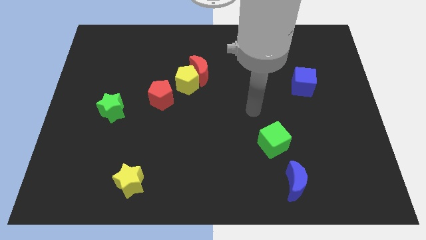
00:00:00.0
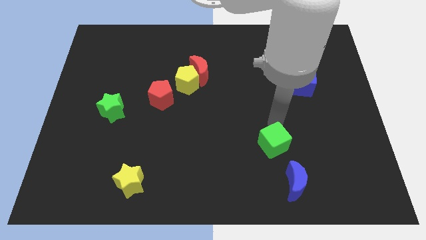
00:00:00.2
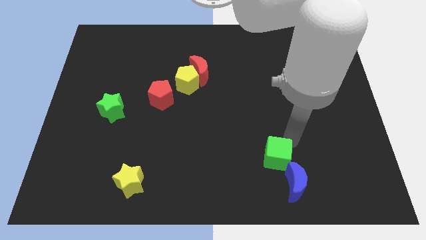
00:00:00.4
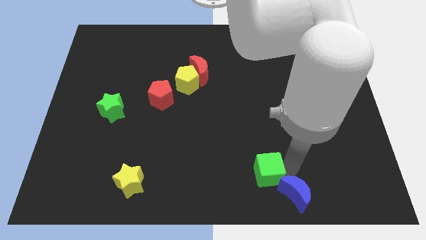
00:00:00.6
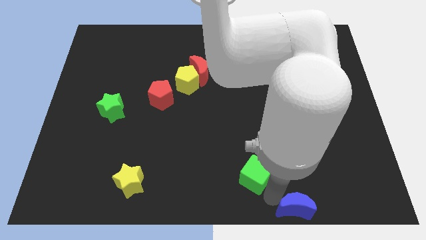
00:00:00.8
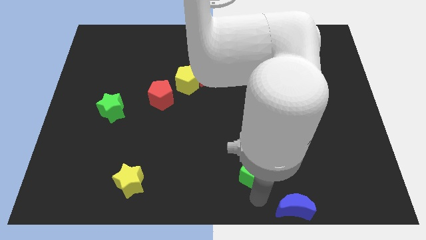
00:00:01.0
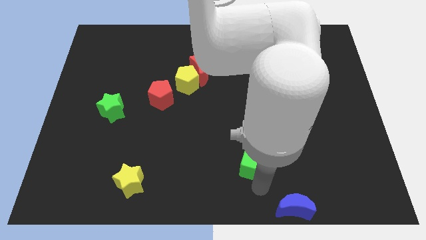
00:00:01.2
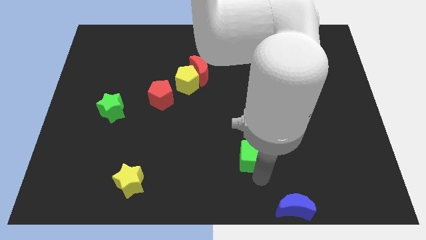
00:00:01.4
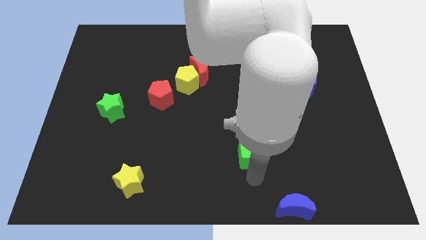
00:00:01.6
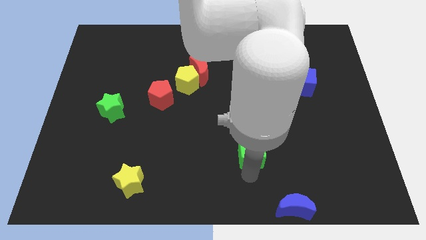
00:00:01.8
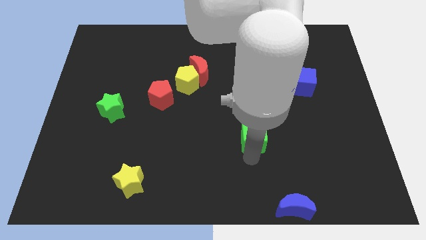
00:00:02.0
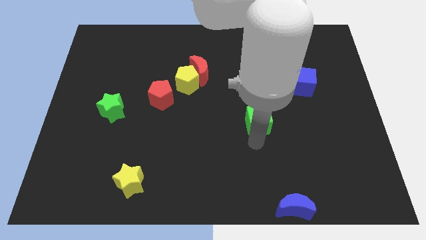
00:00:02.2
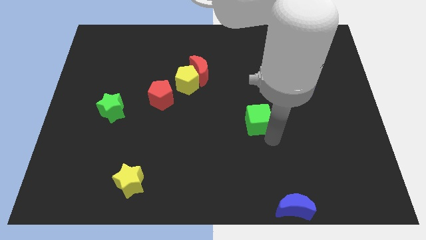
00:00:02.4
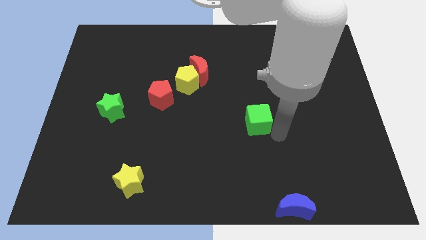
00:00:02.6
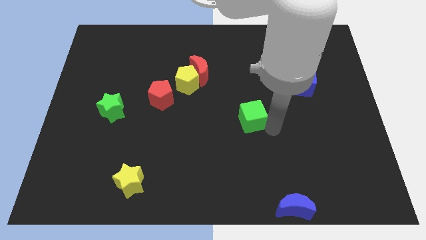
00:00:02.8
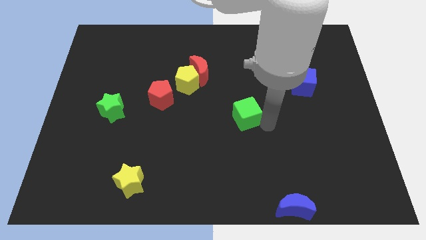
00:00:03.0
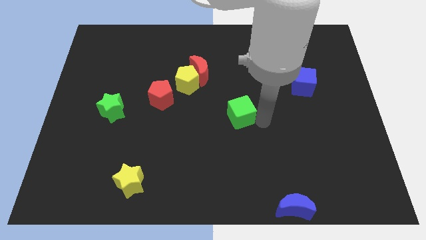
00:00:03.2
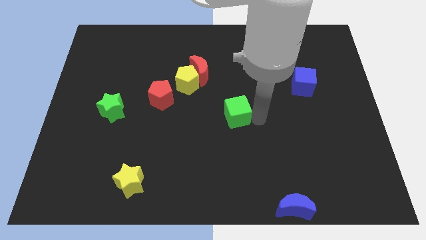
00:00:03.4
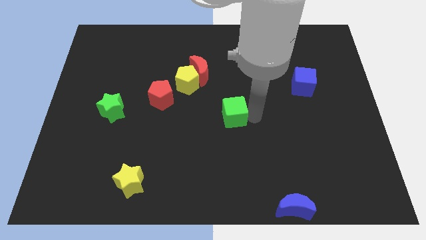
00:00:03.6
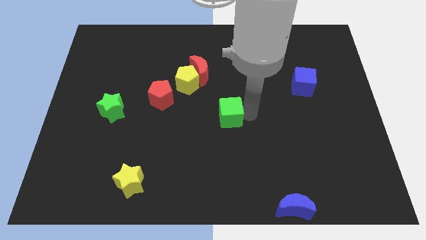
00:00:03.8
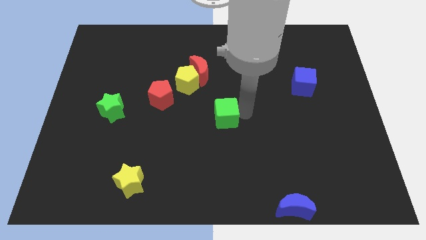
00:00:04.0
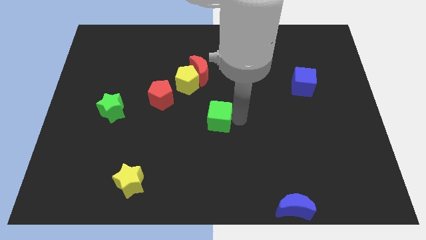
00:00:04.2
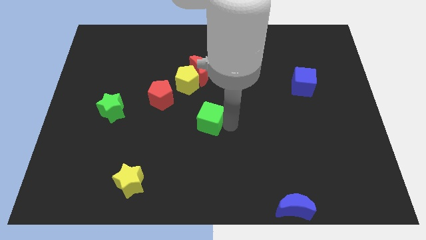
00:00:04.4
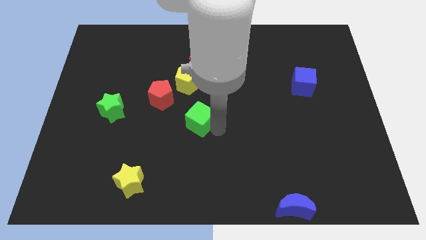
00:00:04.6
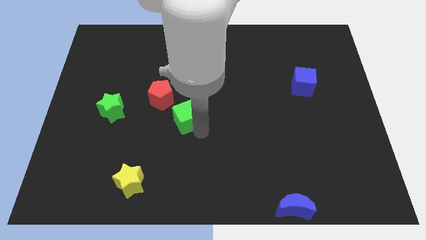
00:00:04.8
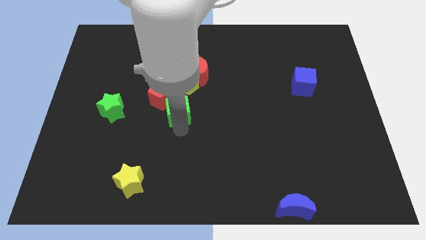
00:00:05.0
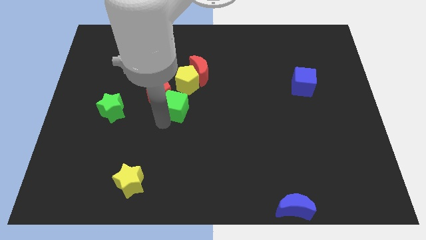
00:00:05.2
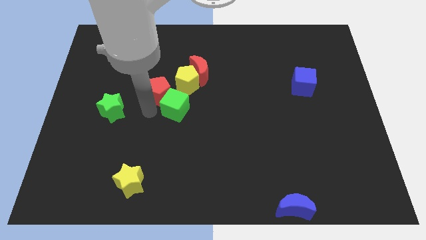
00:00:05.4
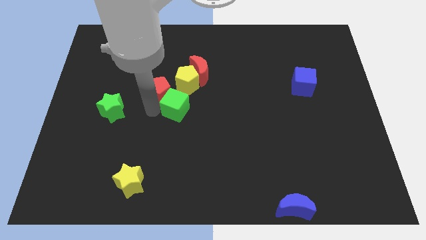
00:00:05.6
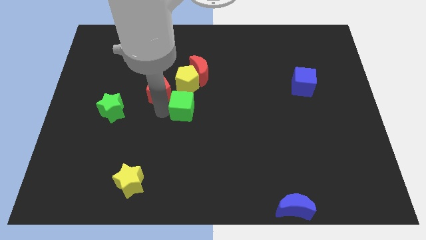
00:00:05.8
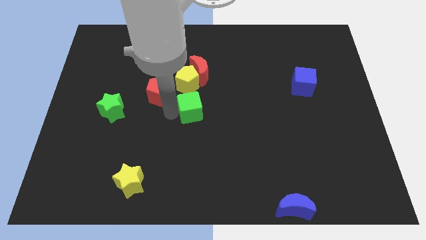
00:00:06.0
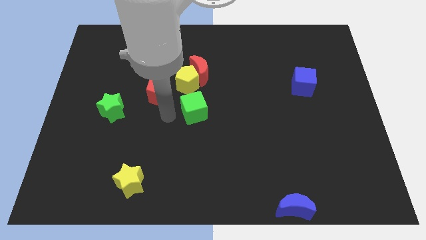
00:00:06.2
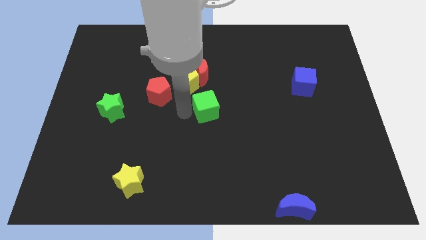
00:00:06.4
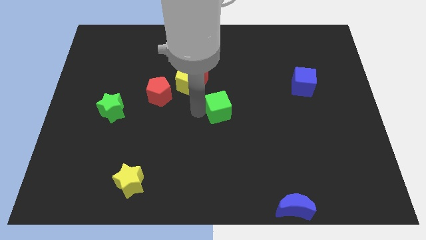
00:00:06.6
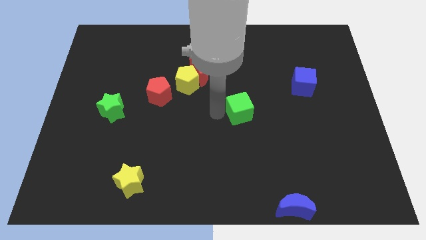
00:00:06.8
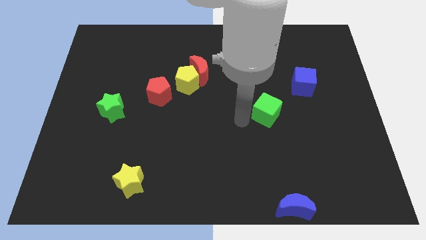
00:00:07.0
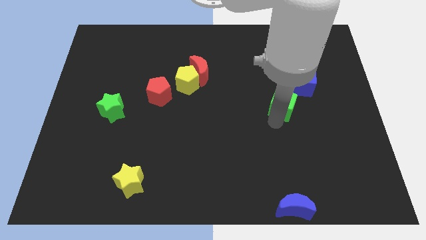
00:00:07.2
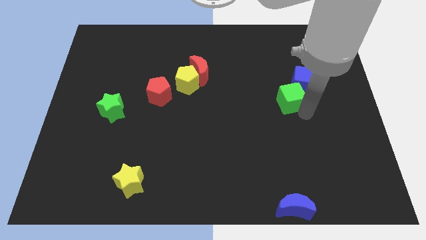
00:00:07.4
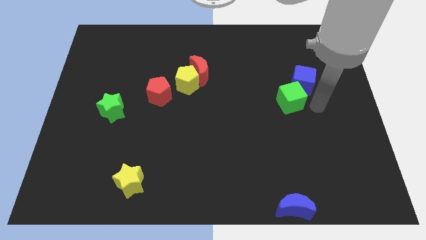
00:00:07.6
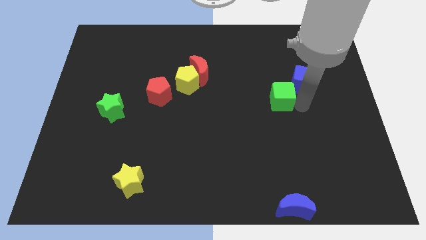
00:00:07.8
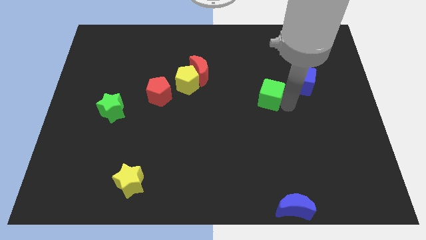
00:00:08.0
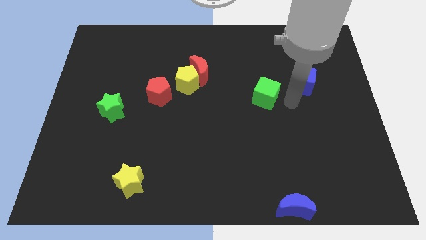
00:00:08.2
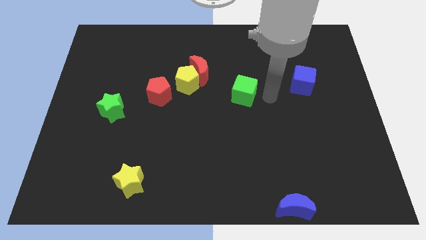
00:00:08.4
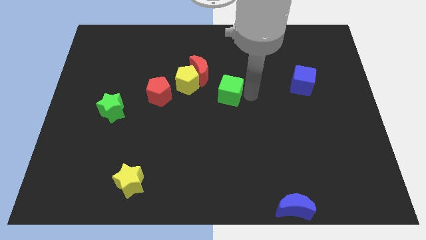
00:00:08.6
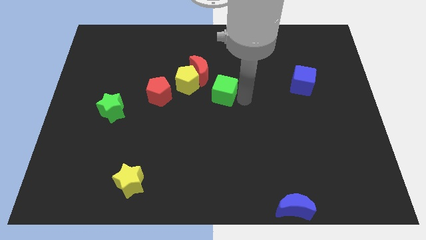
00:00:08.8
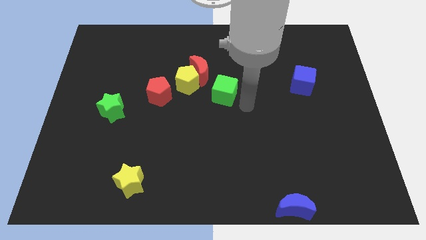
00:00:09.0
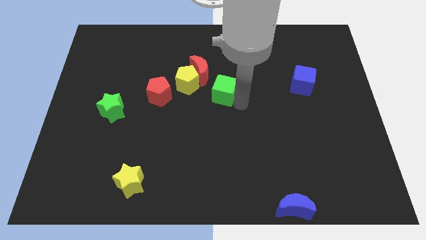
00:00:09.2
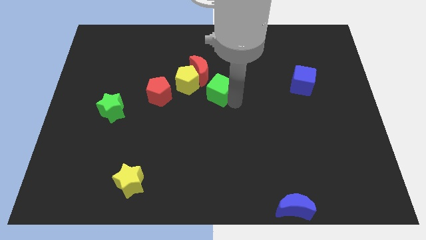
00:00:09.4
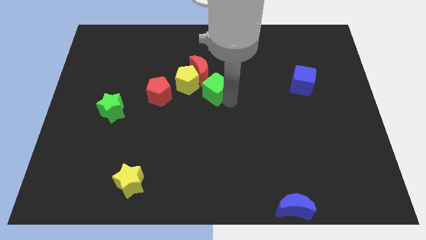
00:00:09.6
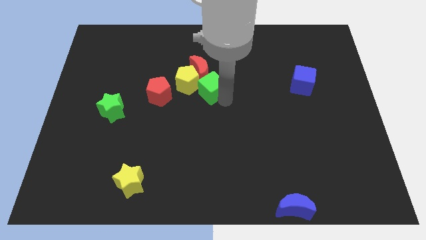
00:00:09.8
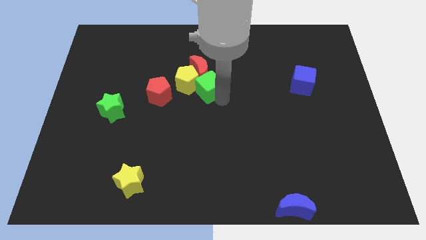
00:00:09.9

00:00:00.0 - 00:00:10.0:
move the green cube towards the red moon

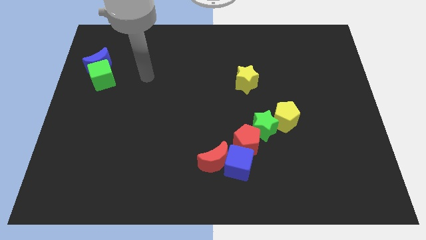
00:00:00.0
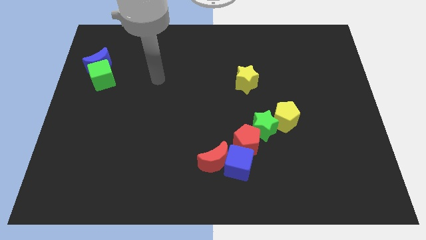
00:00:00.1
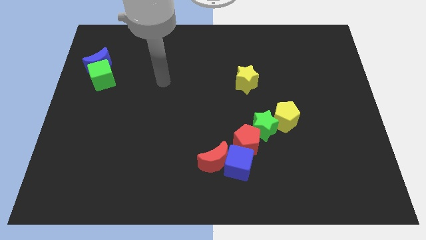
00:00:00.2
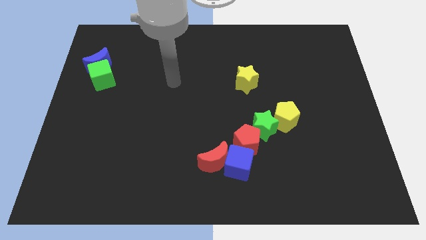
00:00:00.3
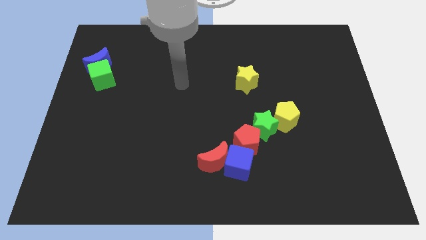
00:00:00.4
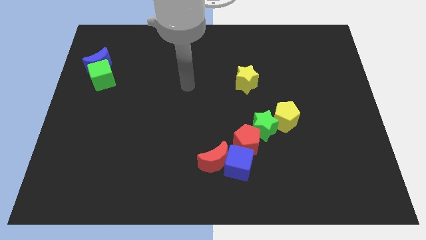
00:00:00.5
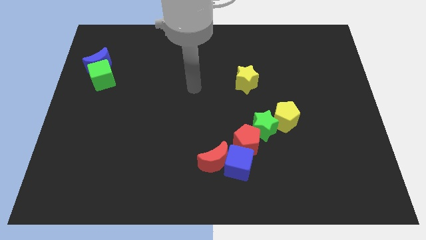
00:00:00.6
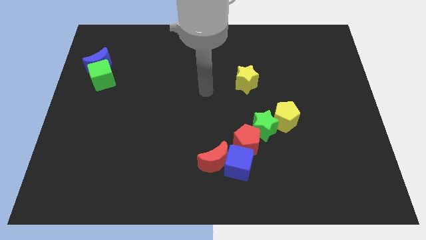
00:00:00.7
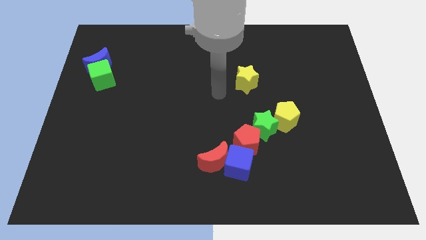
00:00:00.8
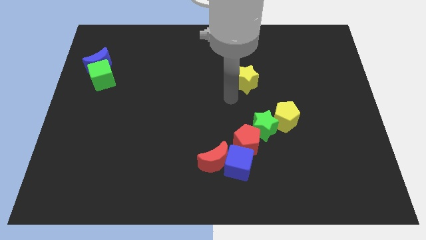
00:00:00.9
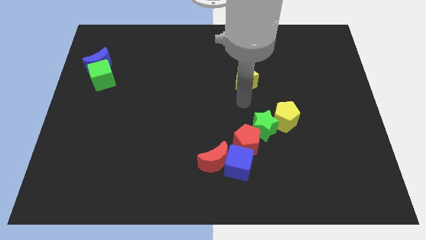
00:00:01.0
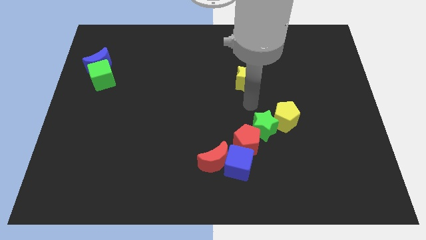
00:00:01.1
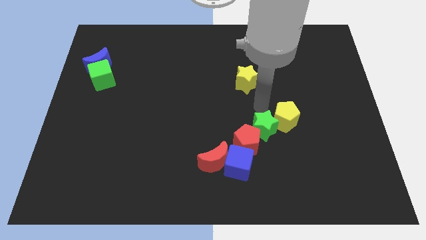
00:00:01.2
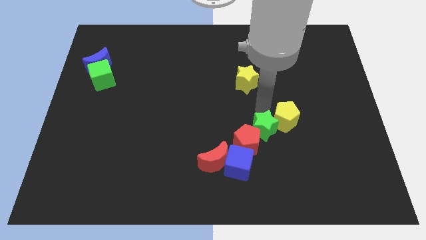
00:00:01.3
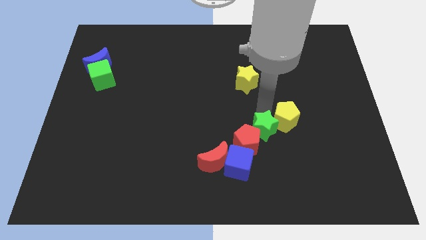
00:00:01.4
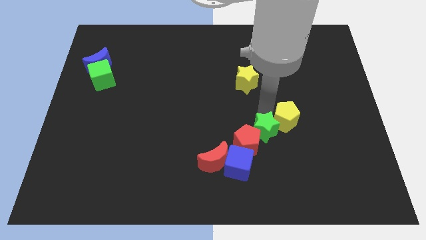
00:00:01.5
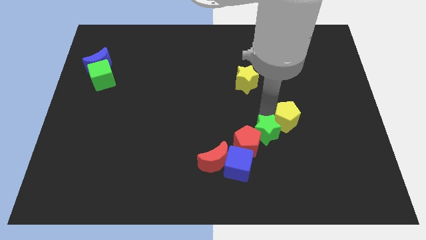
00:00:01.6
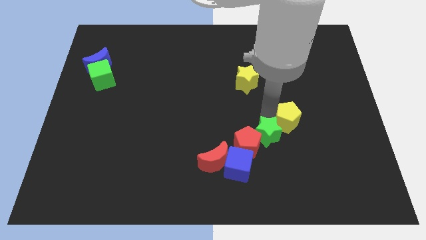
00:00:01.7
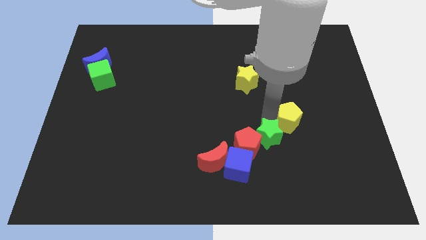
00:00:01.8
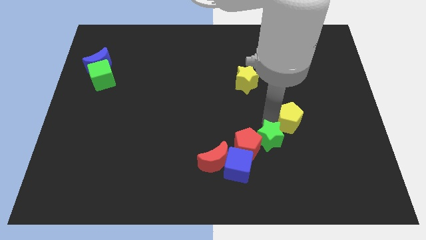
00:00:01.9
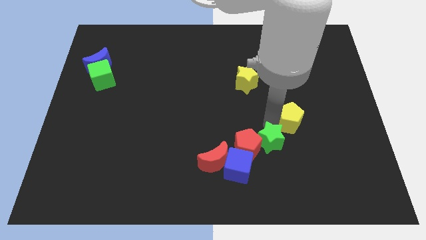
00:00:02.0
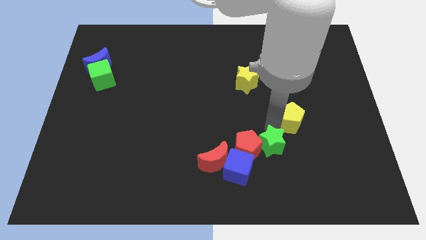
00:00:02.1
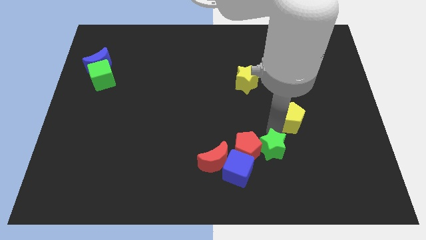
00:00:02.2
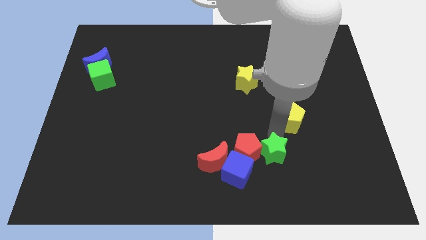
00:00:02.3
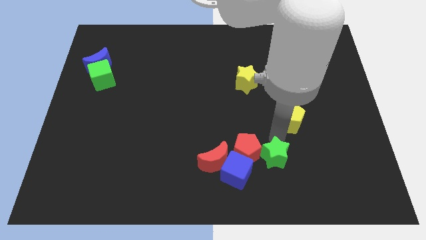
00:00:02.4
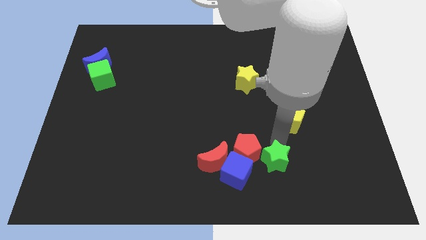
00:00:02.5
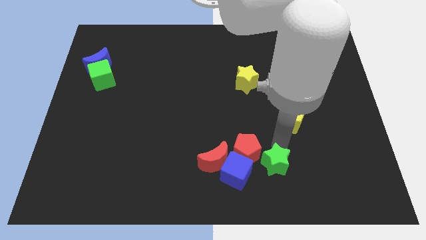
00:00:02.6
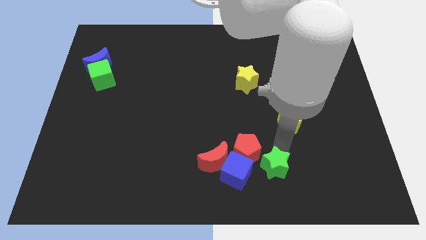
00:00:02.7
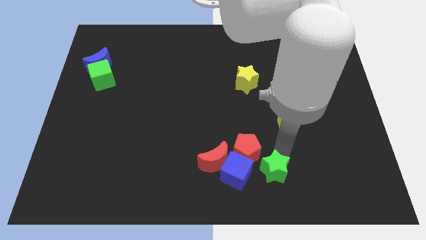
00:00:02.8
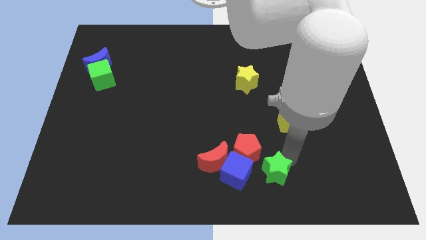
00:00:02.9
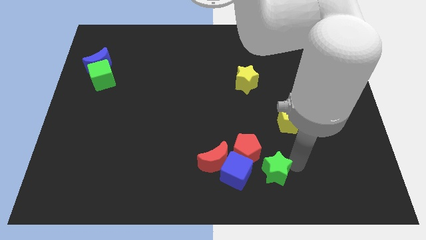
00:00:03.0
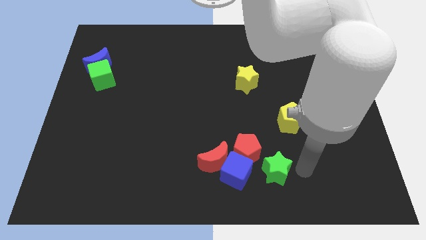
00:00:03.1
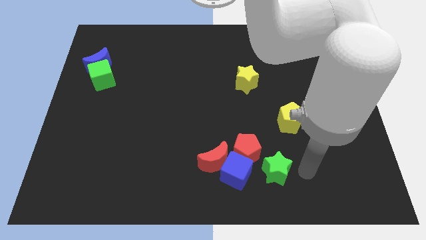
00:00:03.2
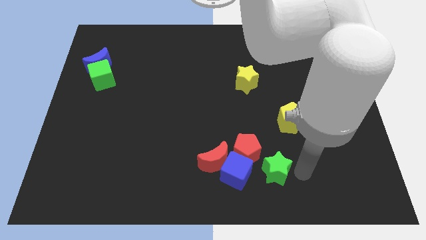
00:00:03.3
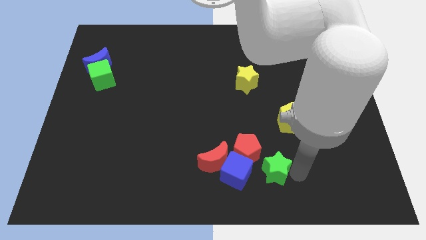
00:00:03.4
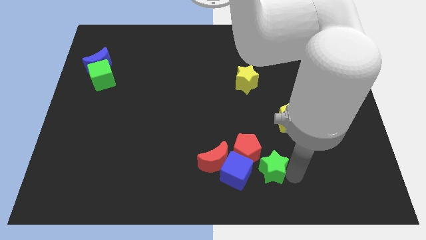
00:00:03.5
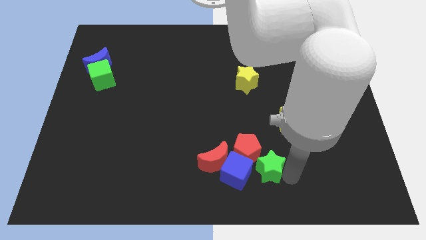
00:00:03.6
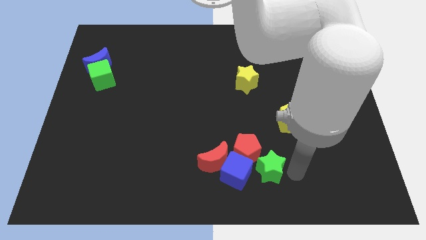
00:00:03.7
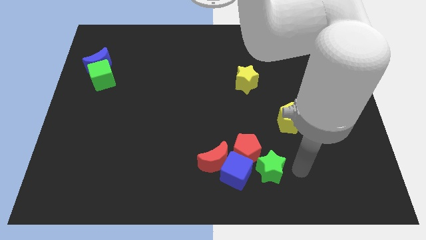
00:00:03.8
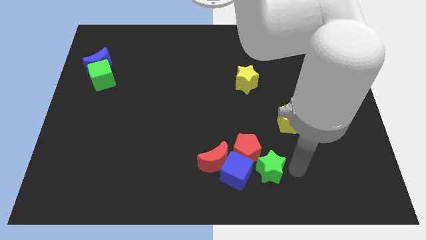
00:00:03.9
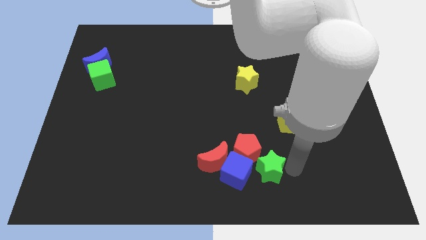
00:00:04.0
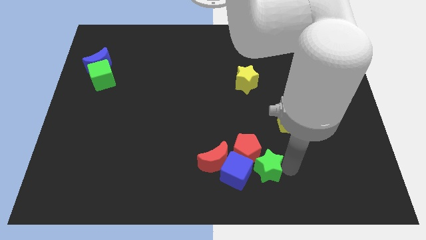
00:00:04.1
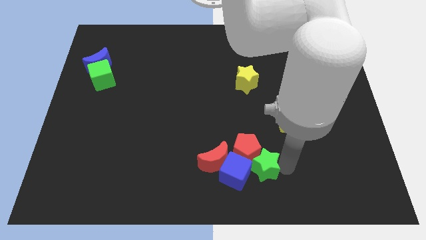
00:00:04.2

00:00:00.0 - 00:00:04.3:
push the green star next to the blue cube
